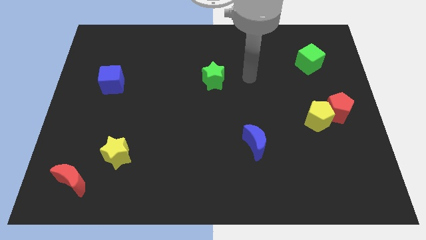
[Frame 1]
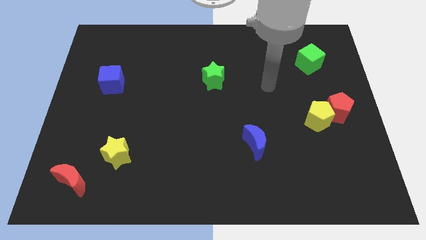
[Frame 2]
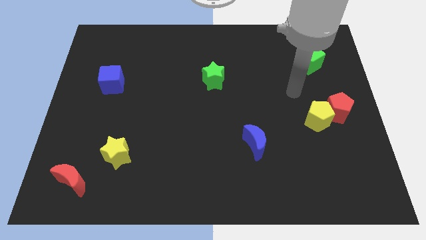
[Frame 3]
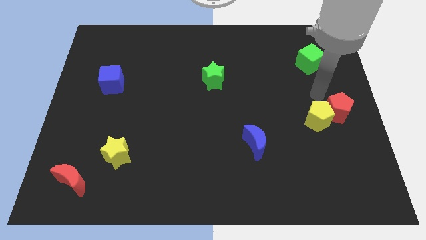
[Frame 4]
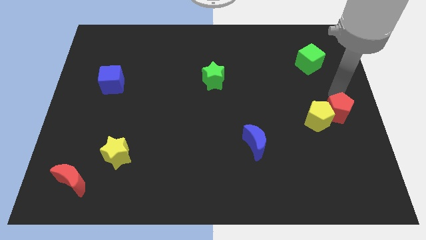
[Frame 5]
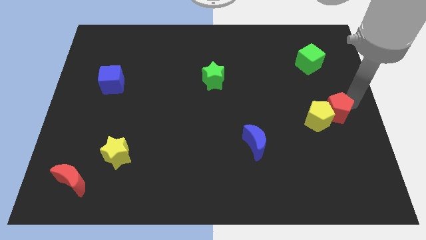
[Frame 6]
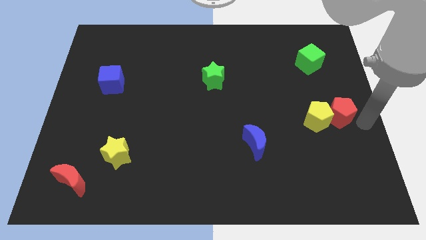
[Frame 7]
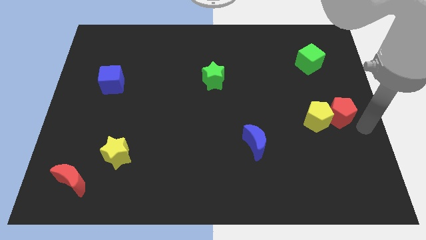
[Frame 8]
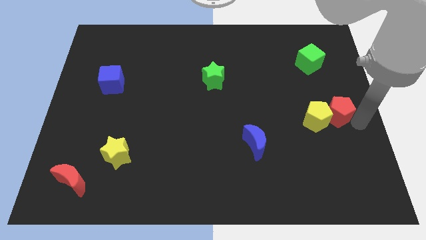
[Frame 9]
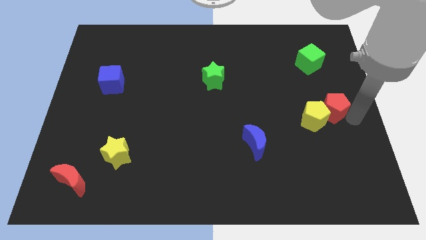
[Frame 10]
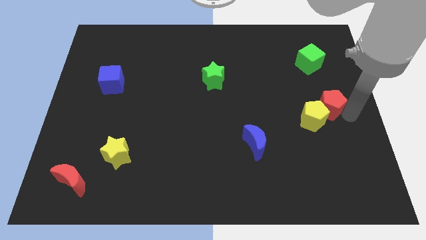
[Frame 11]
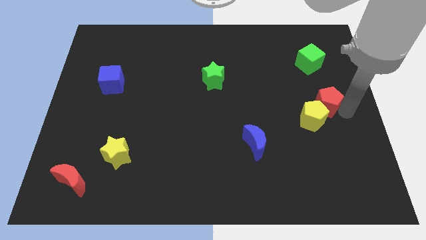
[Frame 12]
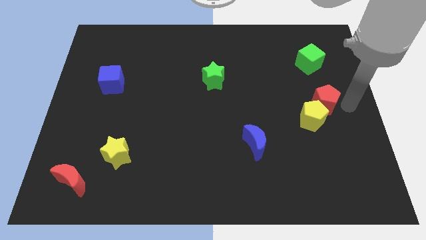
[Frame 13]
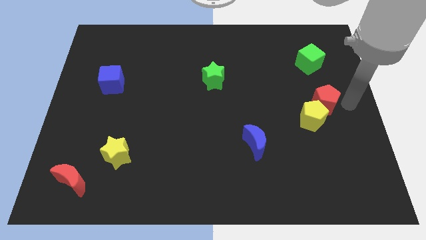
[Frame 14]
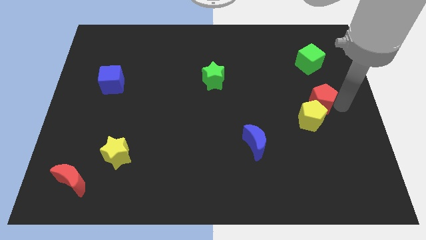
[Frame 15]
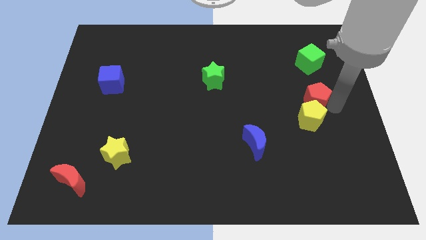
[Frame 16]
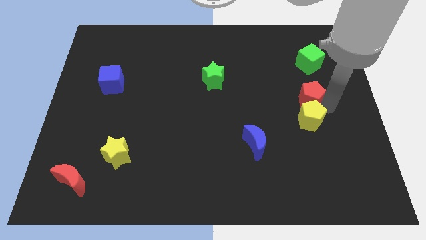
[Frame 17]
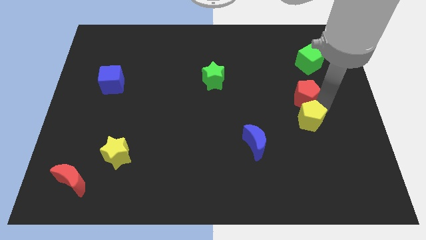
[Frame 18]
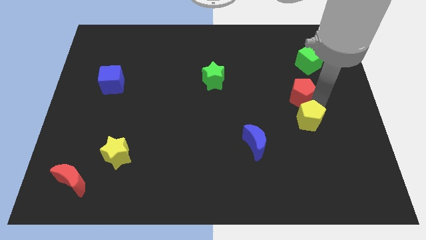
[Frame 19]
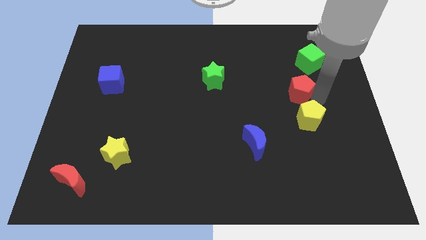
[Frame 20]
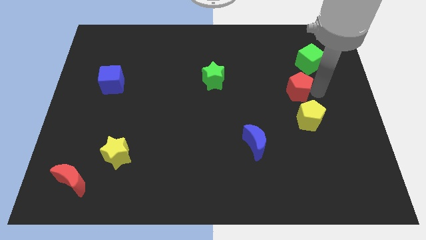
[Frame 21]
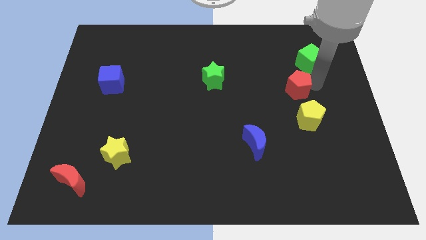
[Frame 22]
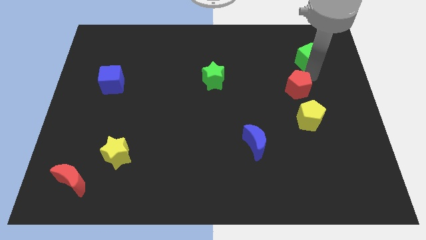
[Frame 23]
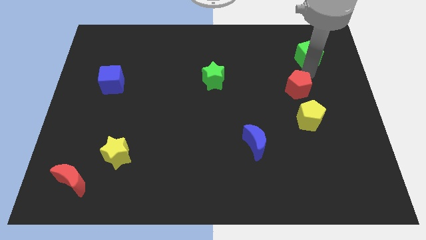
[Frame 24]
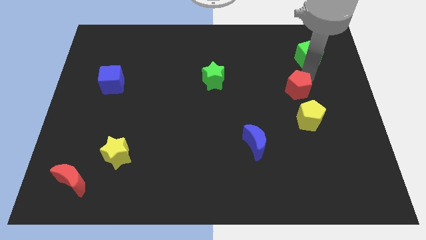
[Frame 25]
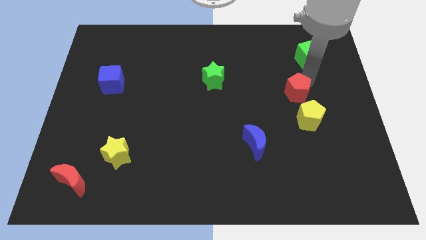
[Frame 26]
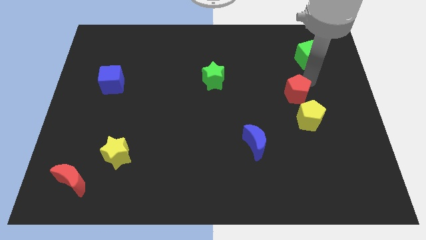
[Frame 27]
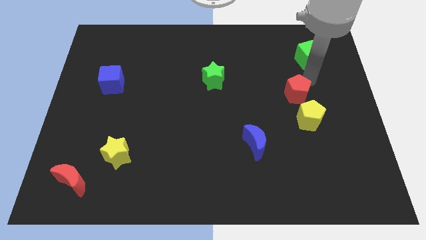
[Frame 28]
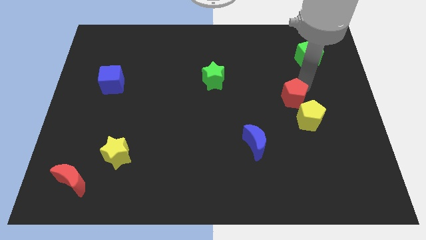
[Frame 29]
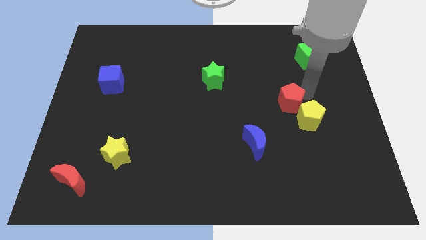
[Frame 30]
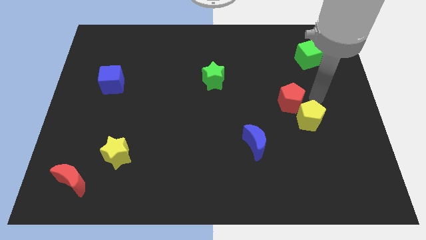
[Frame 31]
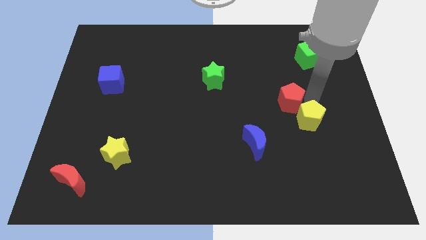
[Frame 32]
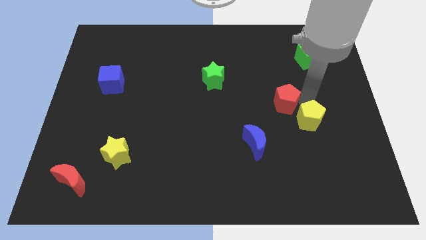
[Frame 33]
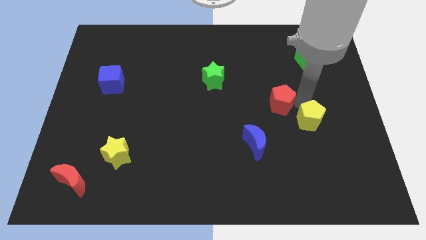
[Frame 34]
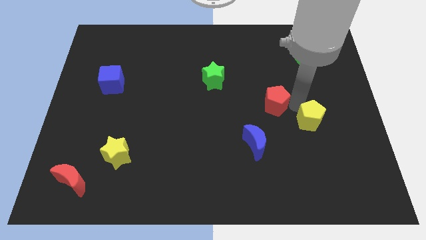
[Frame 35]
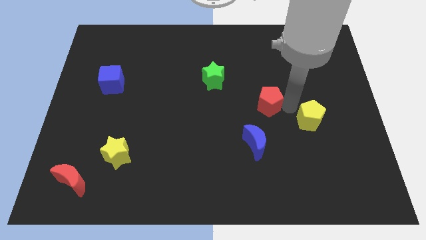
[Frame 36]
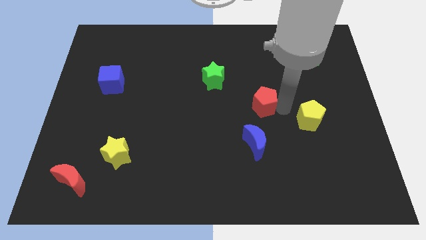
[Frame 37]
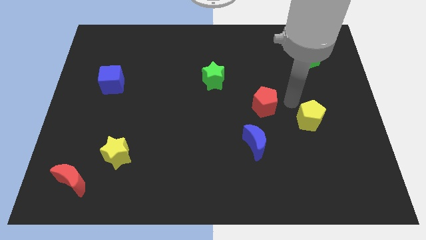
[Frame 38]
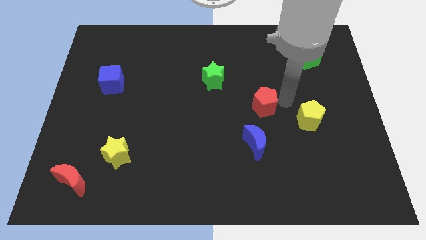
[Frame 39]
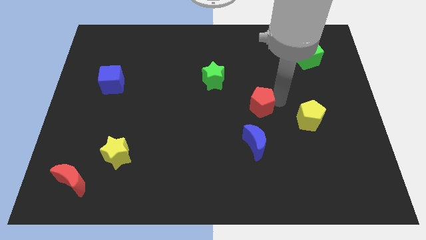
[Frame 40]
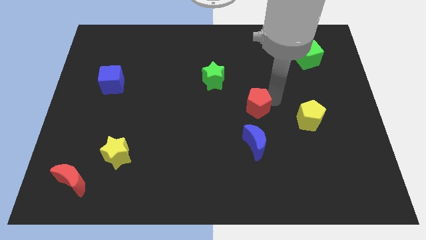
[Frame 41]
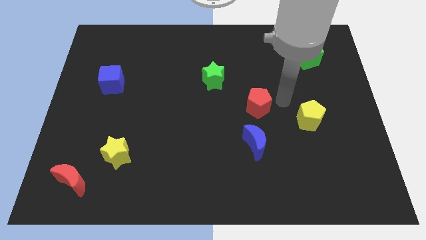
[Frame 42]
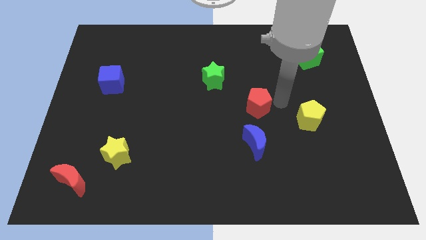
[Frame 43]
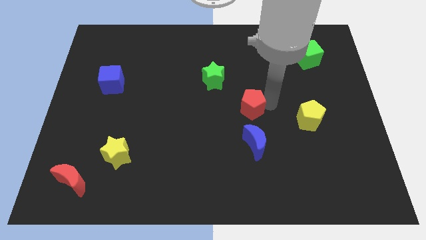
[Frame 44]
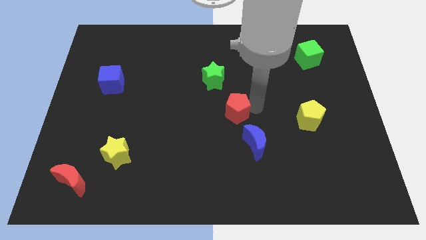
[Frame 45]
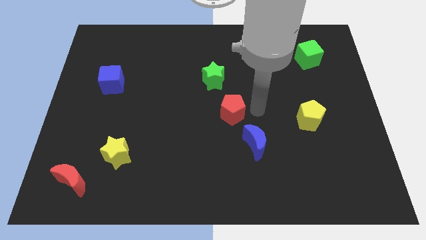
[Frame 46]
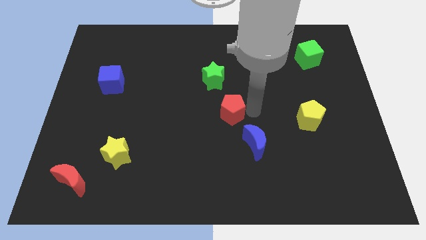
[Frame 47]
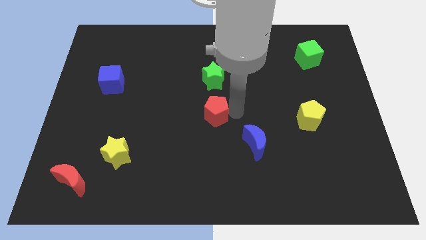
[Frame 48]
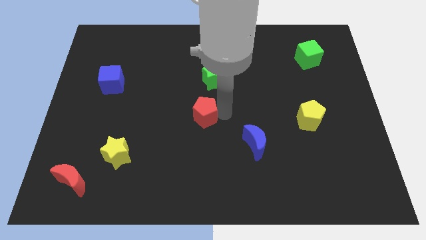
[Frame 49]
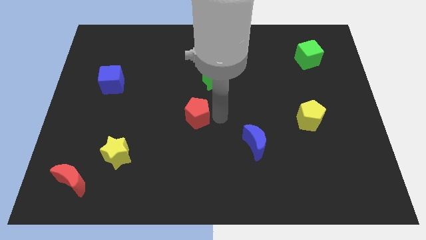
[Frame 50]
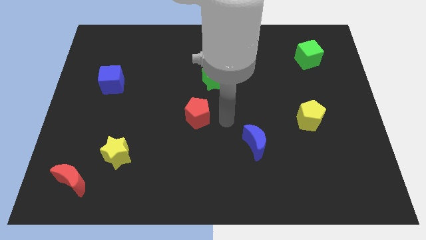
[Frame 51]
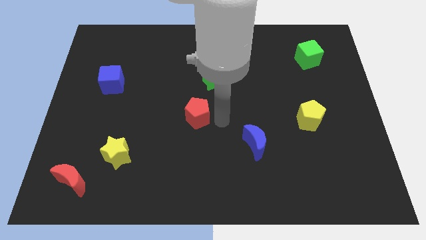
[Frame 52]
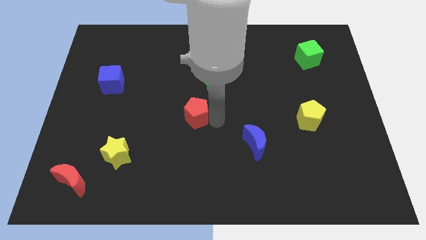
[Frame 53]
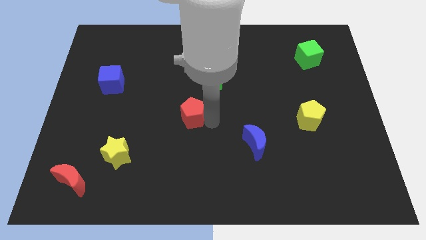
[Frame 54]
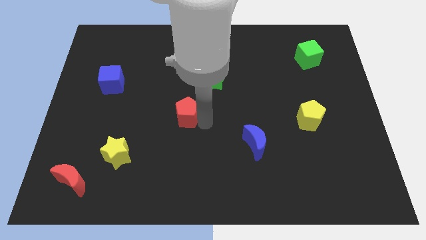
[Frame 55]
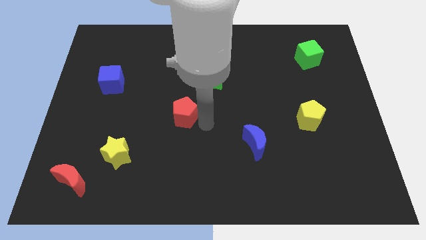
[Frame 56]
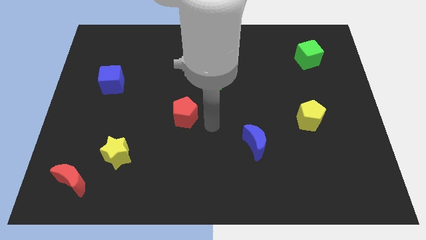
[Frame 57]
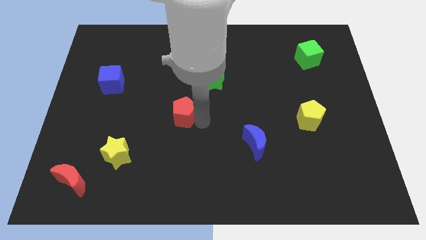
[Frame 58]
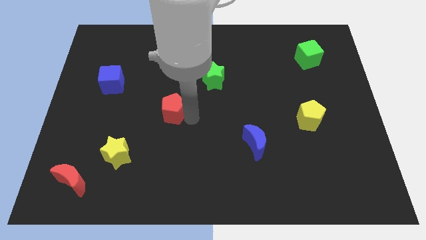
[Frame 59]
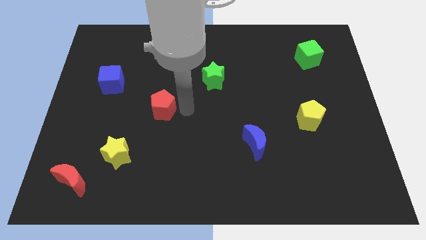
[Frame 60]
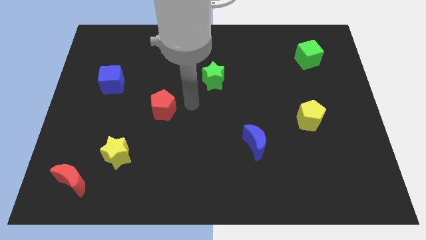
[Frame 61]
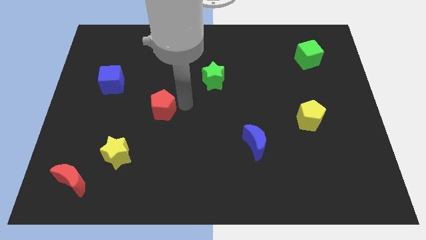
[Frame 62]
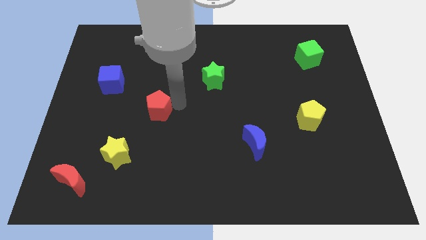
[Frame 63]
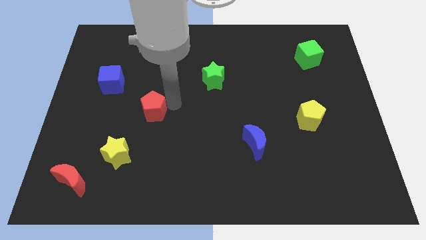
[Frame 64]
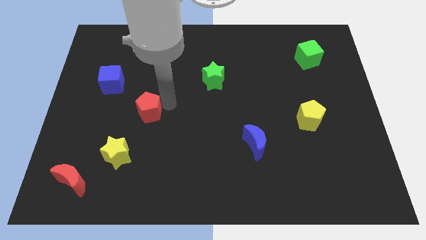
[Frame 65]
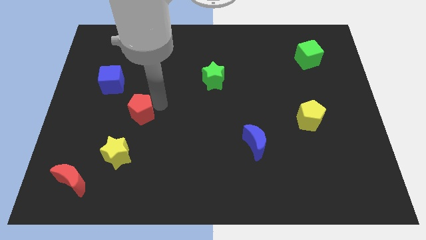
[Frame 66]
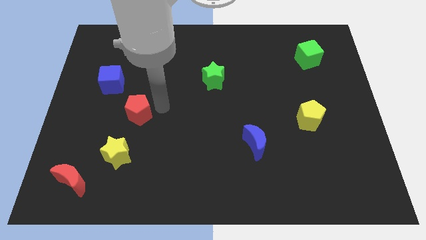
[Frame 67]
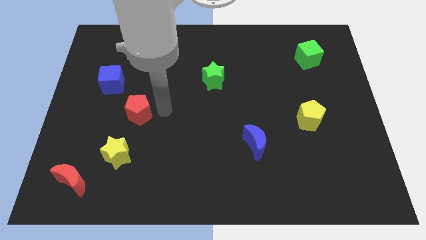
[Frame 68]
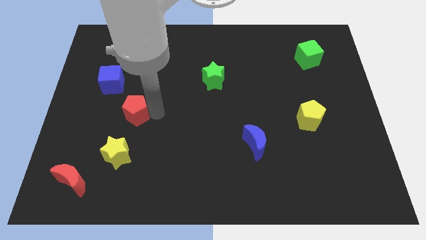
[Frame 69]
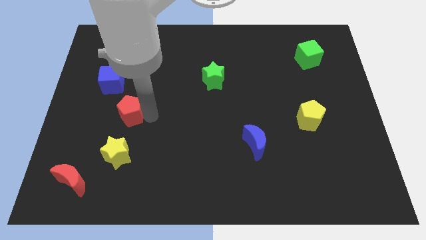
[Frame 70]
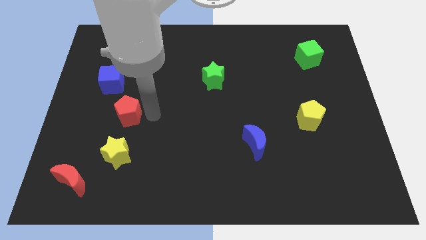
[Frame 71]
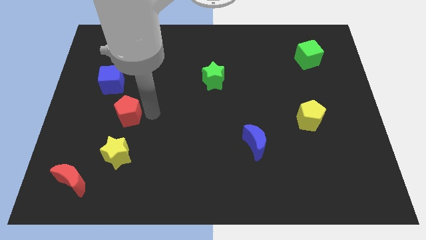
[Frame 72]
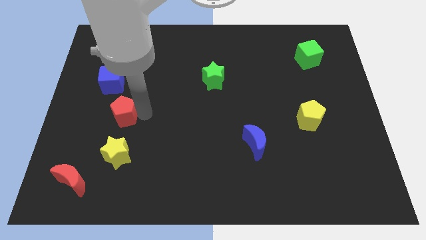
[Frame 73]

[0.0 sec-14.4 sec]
slide the red pentagon to the bottom side of the blue cube
